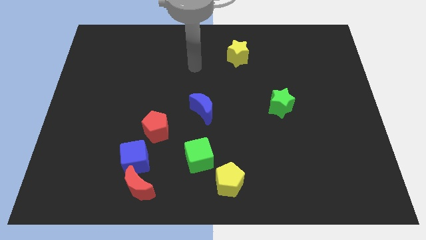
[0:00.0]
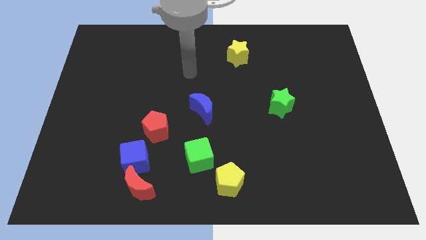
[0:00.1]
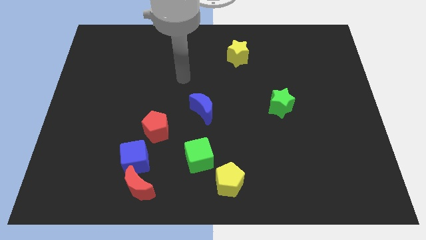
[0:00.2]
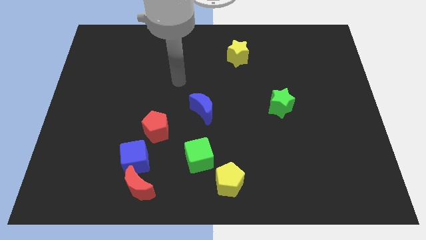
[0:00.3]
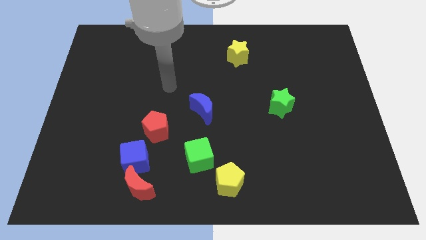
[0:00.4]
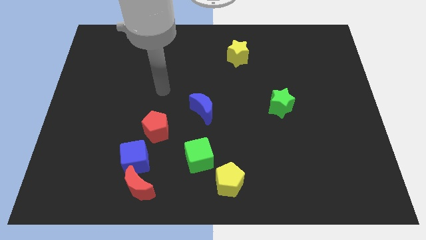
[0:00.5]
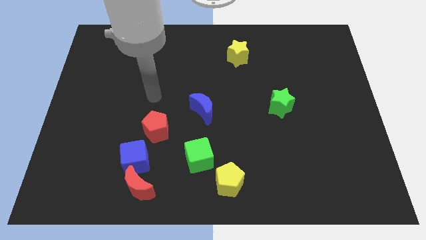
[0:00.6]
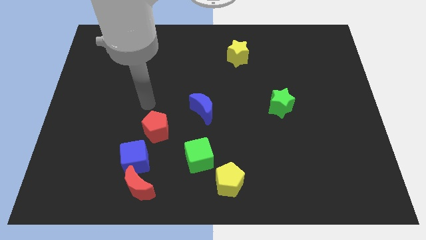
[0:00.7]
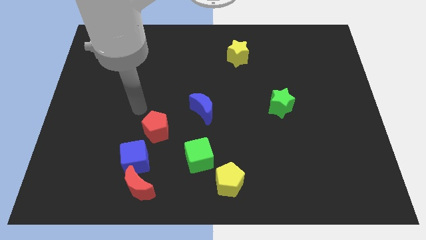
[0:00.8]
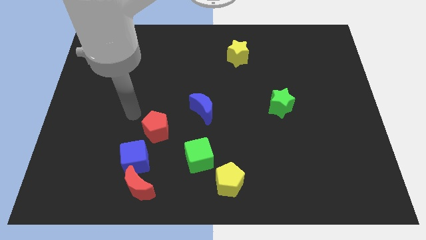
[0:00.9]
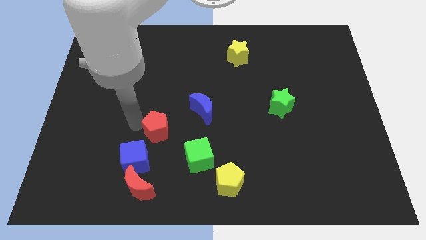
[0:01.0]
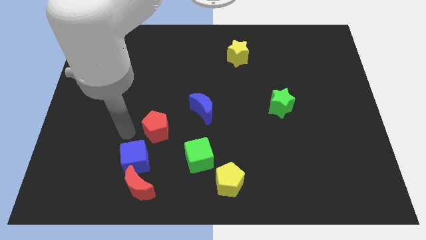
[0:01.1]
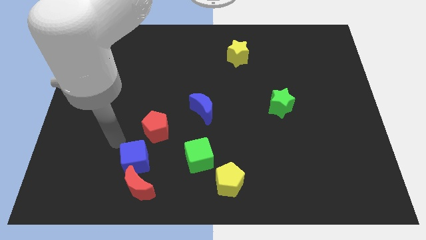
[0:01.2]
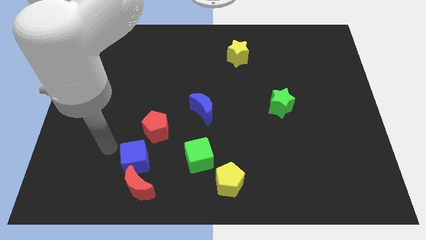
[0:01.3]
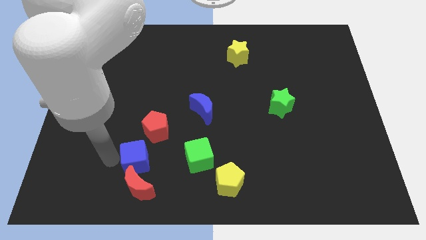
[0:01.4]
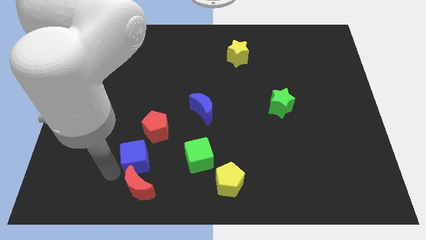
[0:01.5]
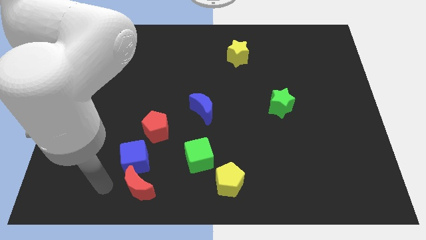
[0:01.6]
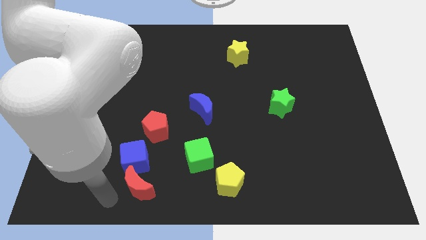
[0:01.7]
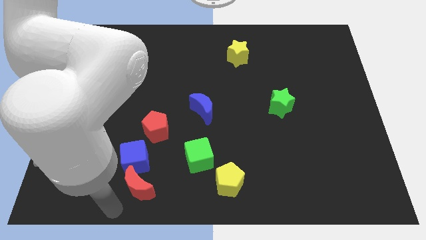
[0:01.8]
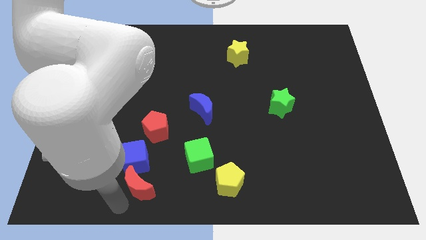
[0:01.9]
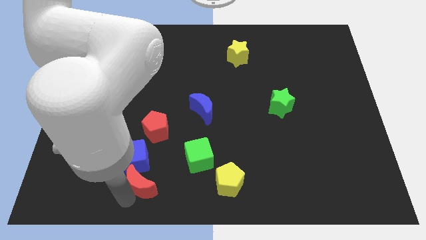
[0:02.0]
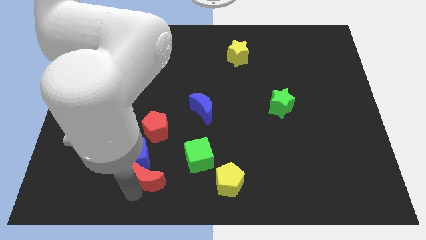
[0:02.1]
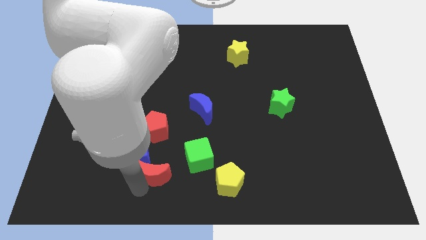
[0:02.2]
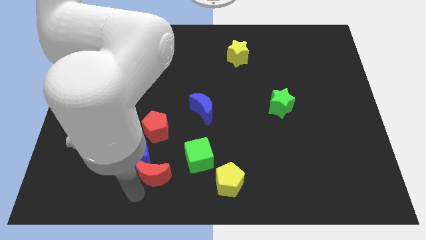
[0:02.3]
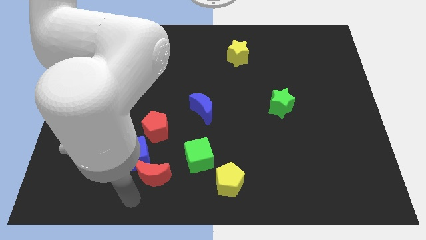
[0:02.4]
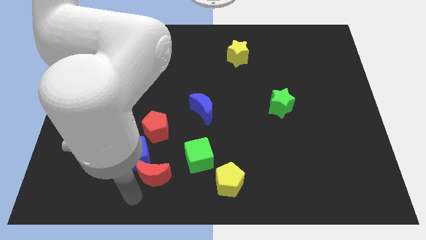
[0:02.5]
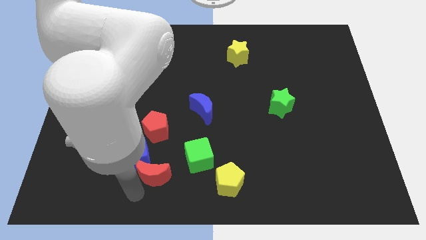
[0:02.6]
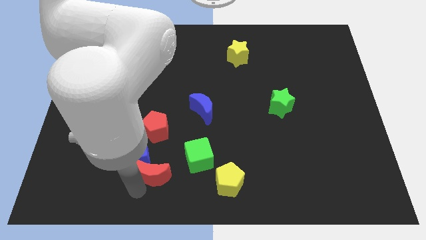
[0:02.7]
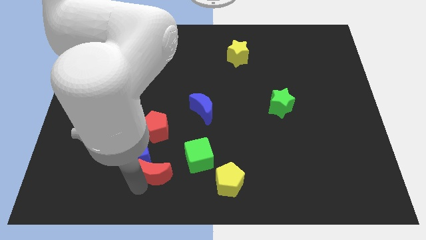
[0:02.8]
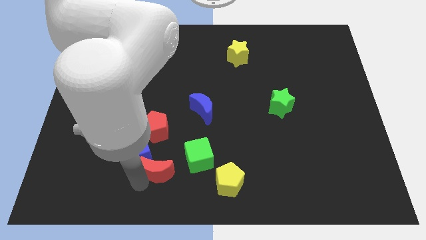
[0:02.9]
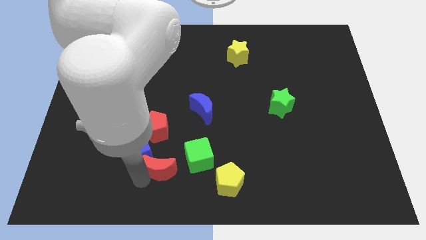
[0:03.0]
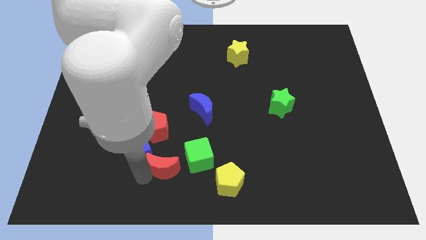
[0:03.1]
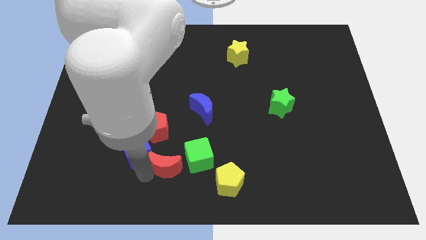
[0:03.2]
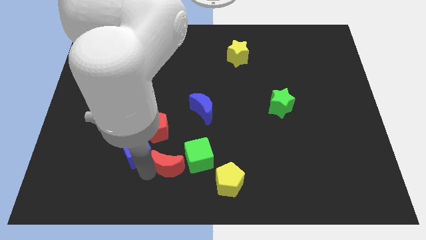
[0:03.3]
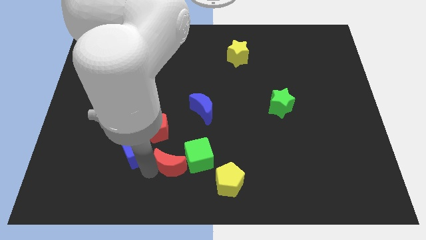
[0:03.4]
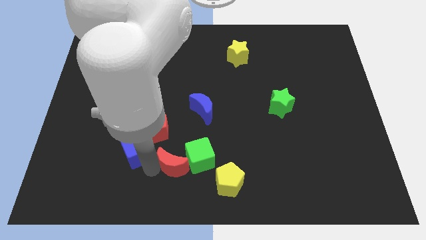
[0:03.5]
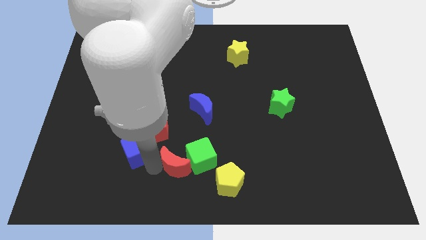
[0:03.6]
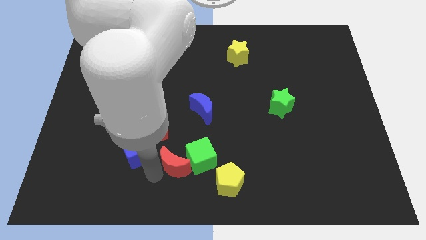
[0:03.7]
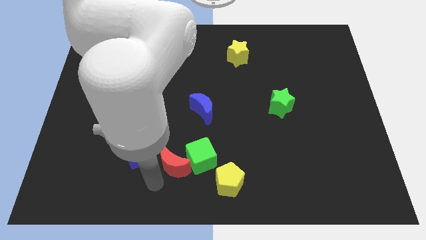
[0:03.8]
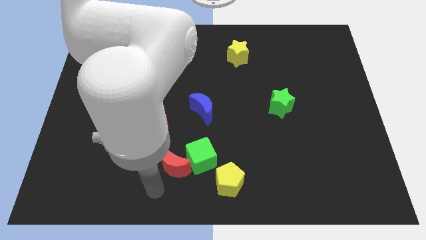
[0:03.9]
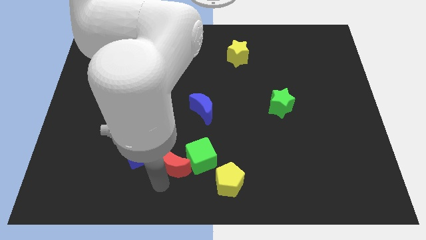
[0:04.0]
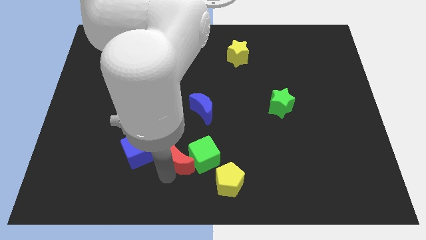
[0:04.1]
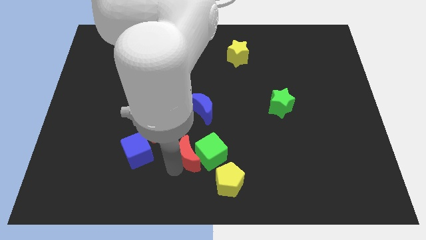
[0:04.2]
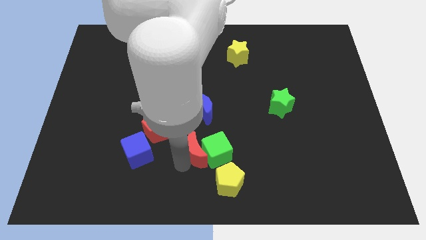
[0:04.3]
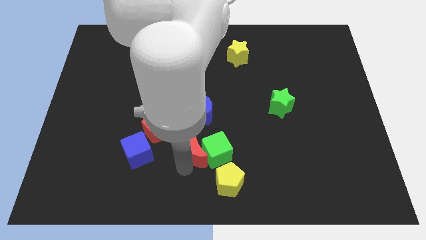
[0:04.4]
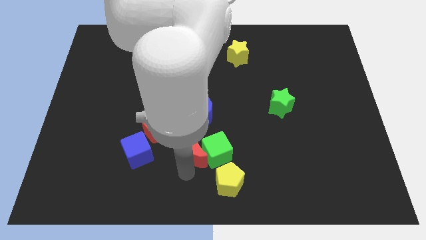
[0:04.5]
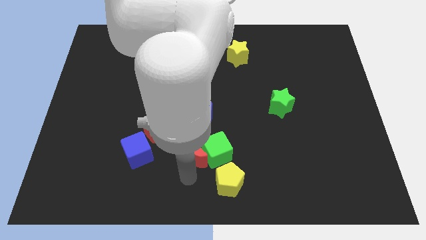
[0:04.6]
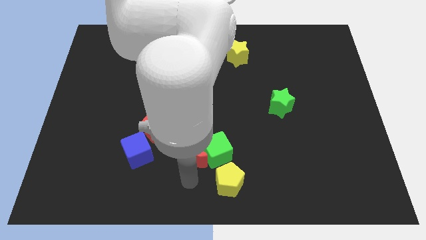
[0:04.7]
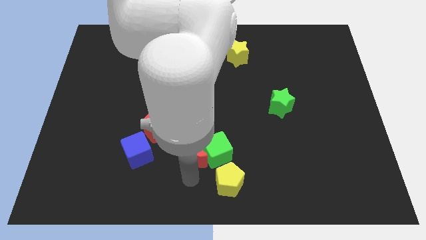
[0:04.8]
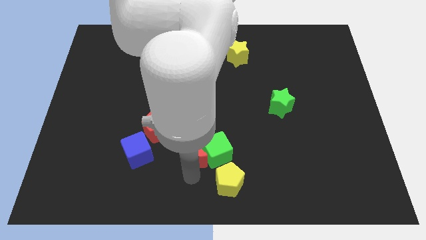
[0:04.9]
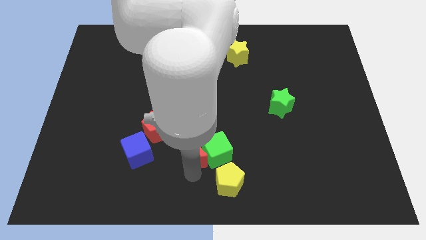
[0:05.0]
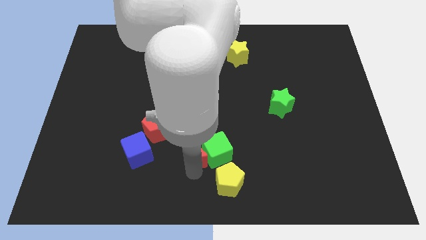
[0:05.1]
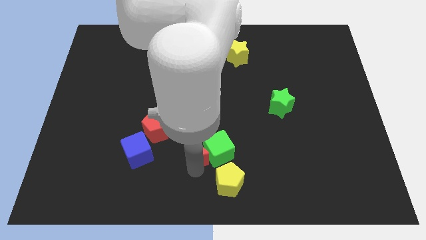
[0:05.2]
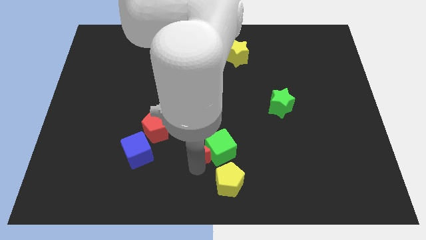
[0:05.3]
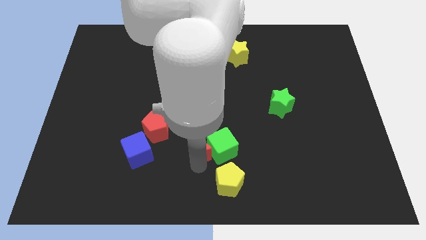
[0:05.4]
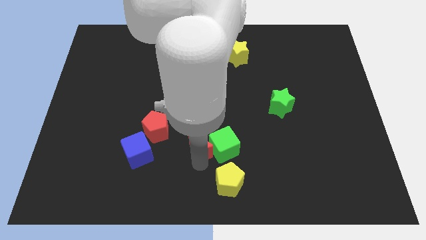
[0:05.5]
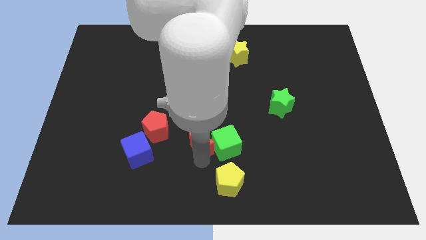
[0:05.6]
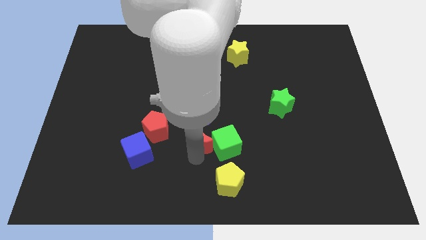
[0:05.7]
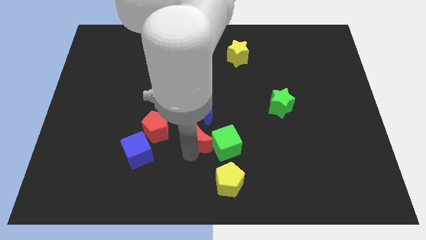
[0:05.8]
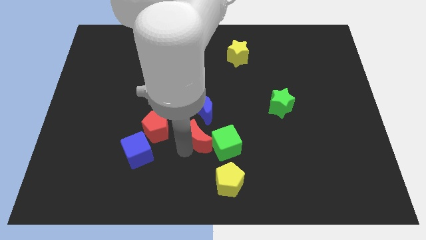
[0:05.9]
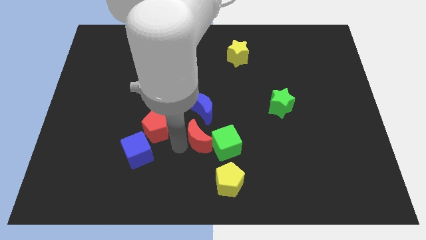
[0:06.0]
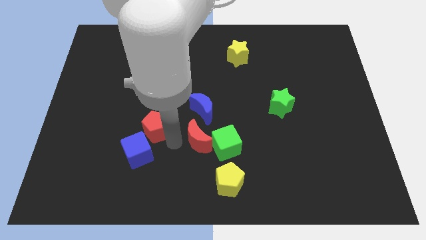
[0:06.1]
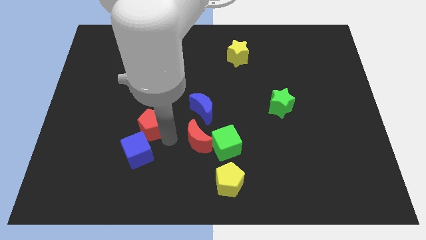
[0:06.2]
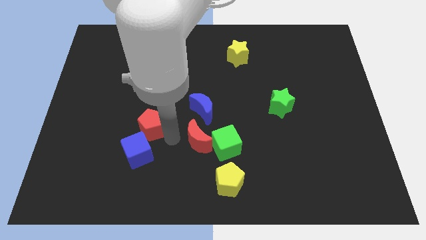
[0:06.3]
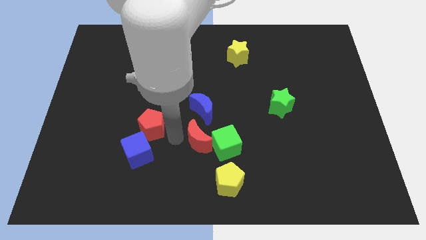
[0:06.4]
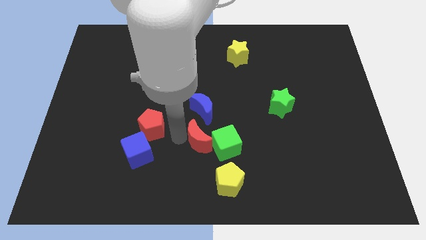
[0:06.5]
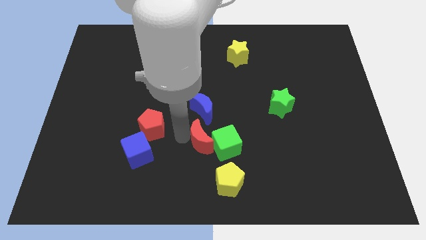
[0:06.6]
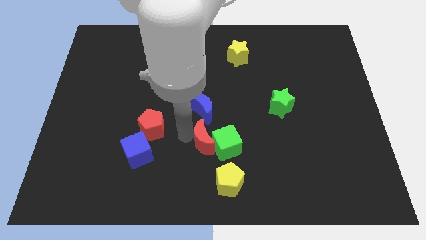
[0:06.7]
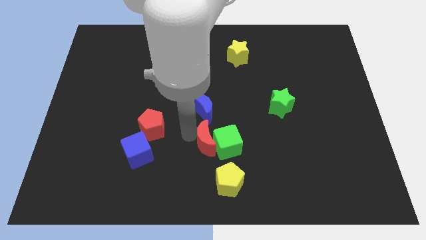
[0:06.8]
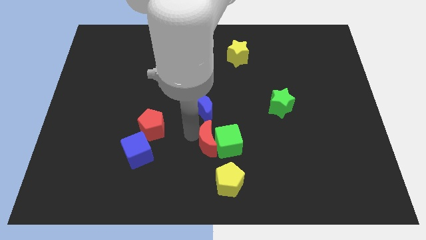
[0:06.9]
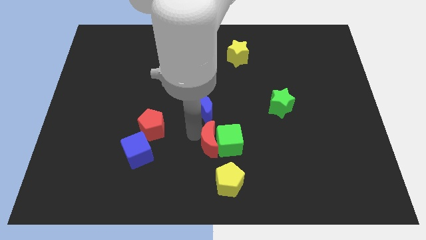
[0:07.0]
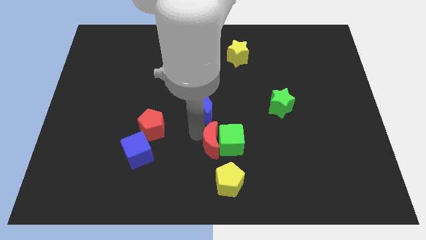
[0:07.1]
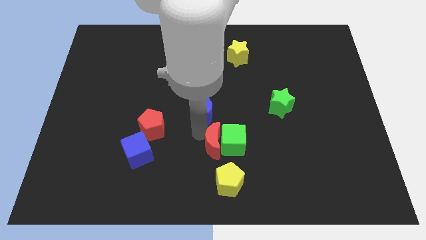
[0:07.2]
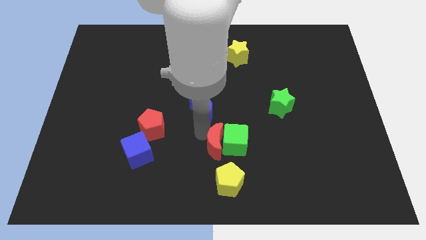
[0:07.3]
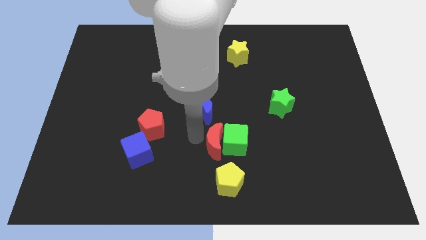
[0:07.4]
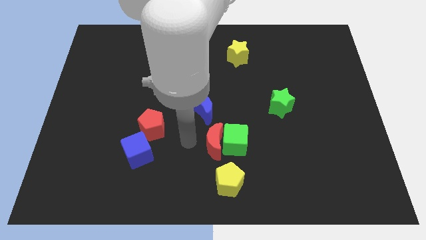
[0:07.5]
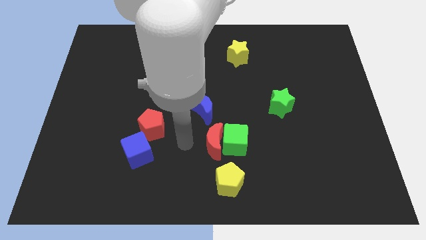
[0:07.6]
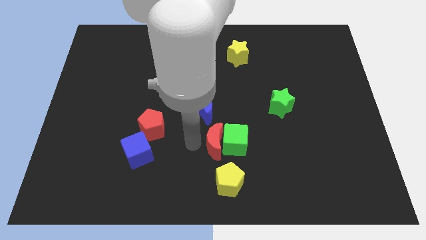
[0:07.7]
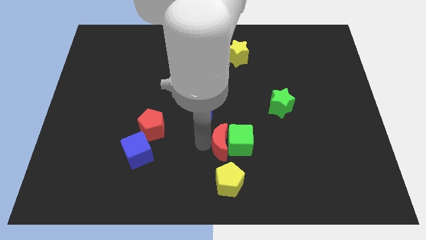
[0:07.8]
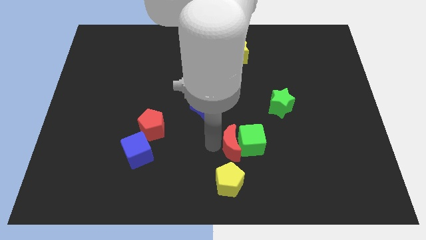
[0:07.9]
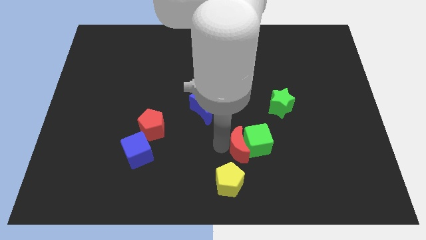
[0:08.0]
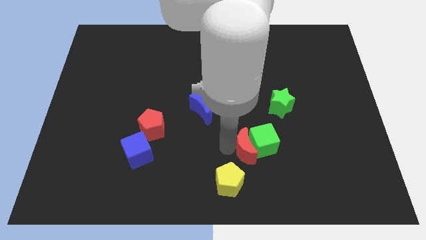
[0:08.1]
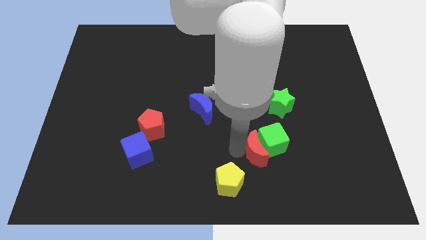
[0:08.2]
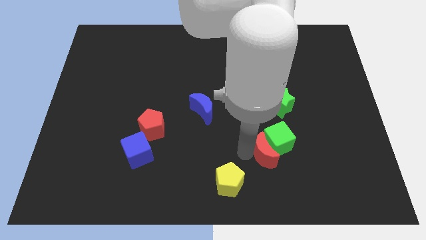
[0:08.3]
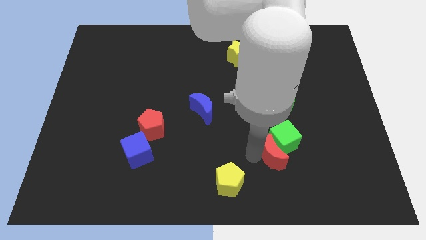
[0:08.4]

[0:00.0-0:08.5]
move the red moon to the bottom side of the green star
